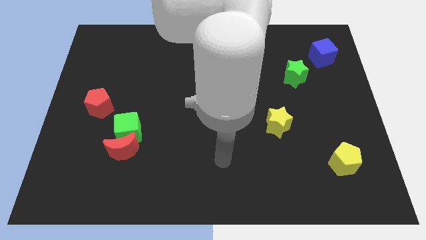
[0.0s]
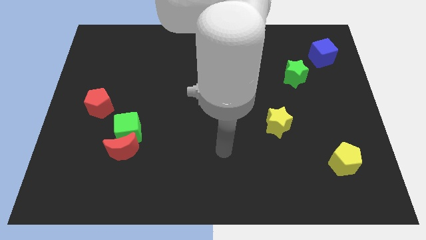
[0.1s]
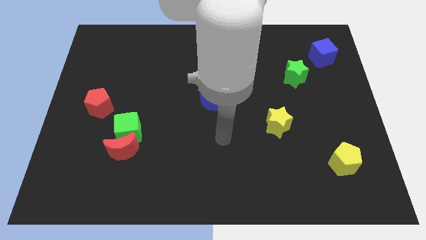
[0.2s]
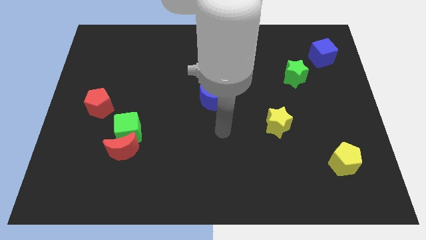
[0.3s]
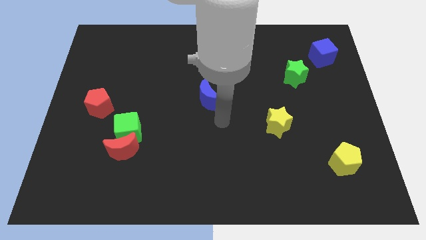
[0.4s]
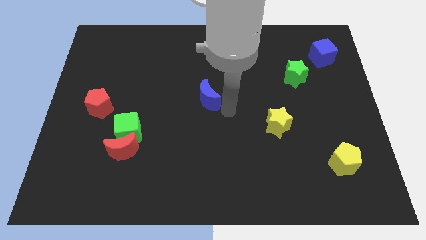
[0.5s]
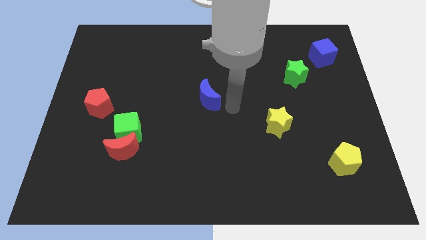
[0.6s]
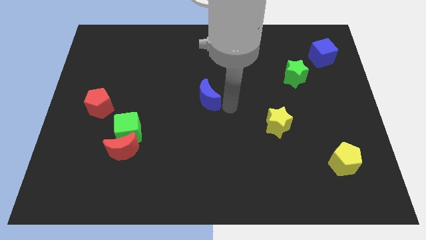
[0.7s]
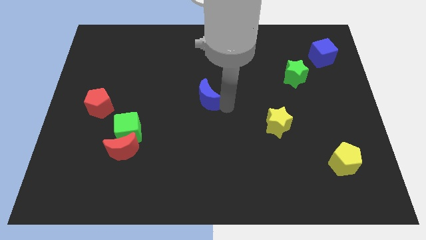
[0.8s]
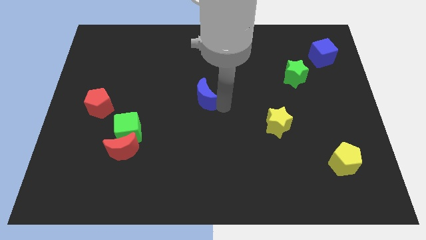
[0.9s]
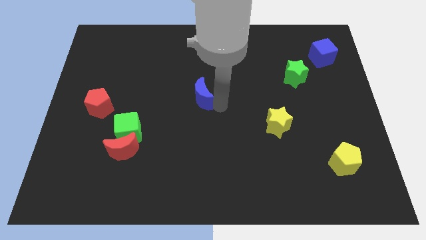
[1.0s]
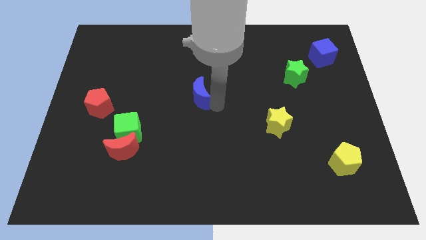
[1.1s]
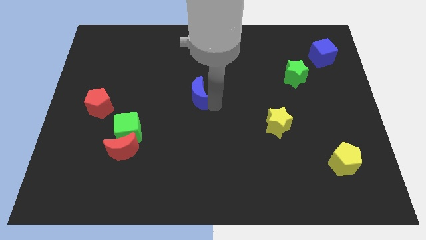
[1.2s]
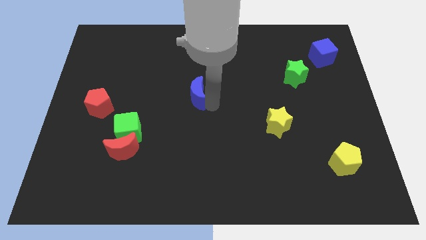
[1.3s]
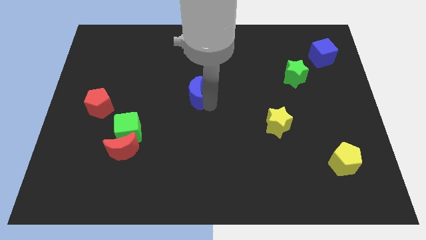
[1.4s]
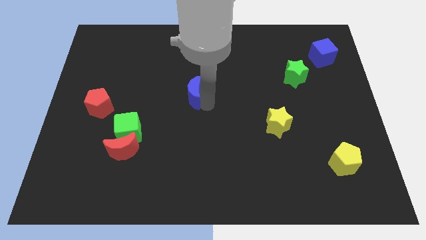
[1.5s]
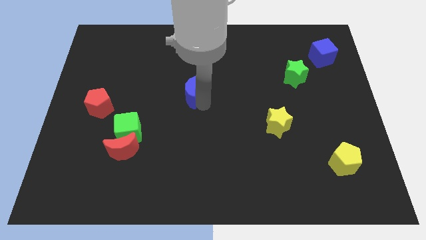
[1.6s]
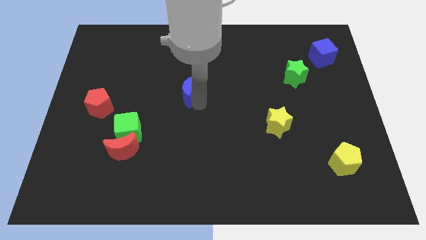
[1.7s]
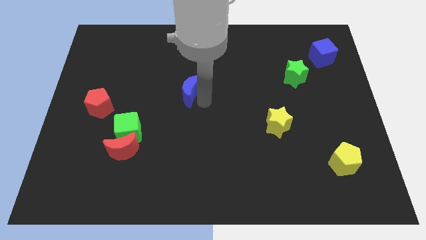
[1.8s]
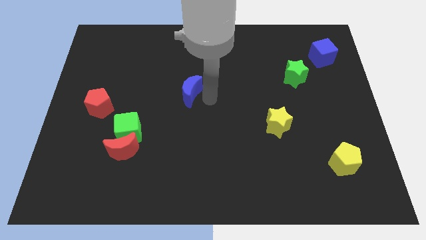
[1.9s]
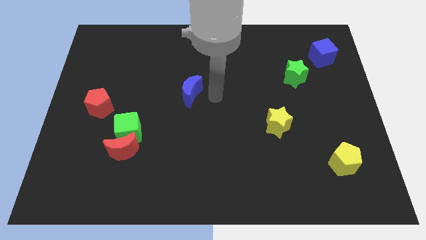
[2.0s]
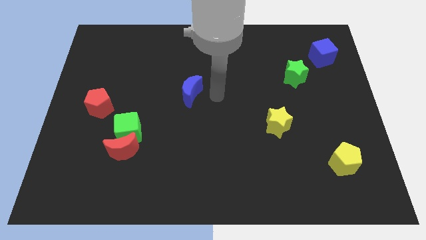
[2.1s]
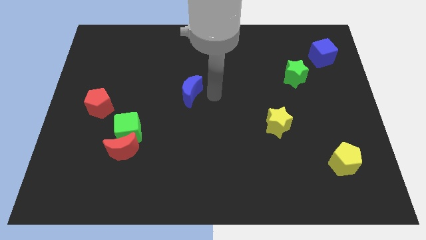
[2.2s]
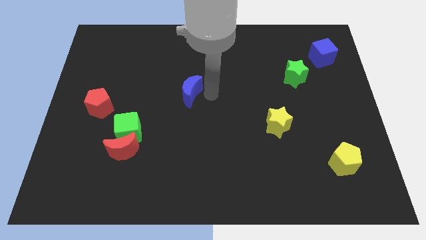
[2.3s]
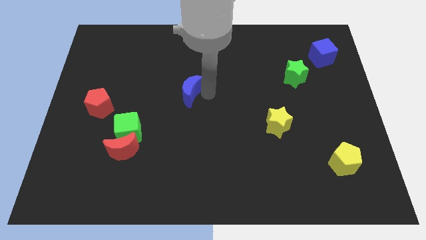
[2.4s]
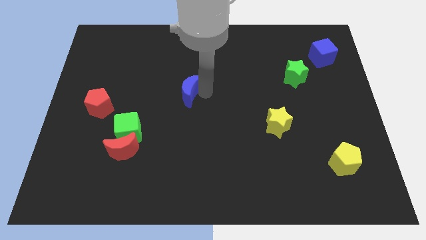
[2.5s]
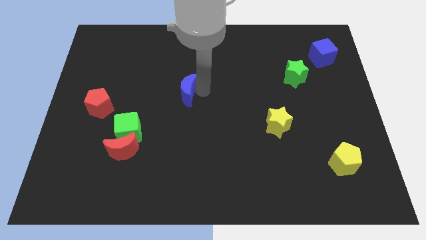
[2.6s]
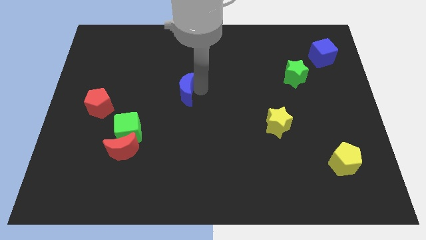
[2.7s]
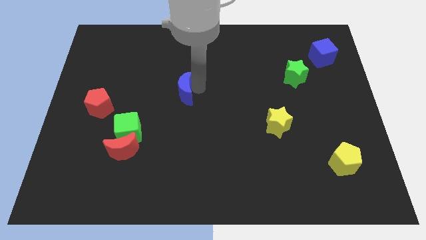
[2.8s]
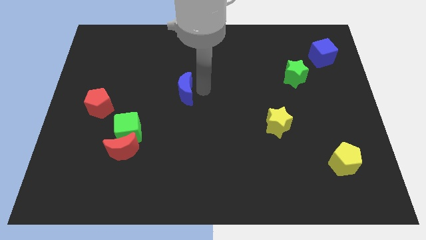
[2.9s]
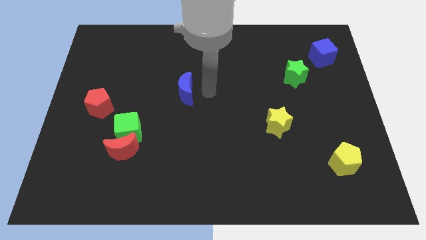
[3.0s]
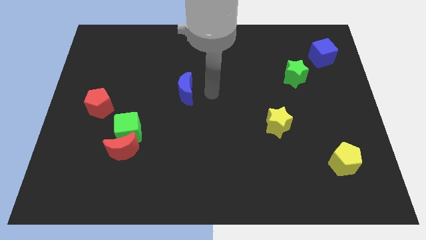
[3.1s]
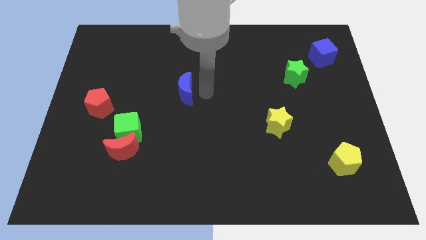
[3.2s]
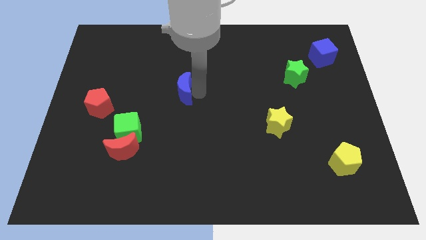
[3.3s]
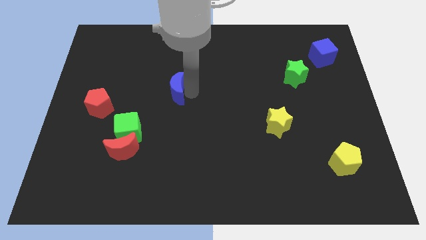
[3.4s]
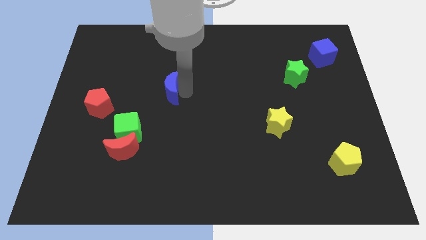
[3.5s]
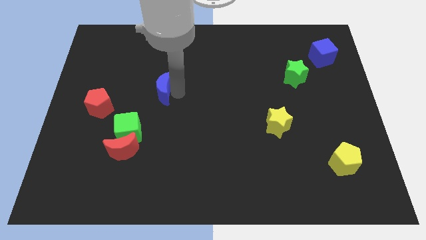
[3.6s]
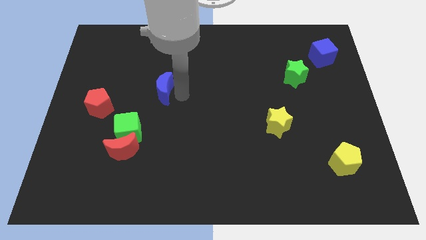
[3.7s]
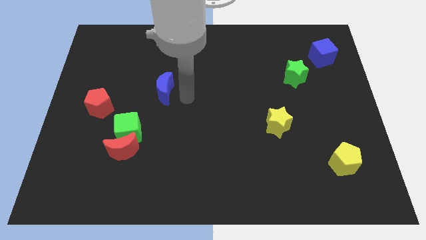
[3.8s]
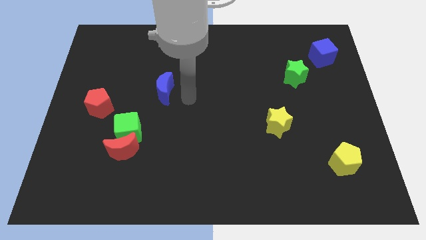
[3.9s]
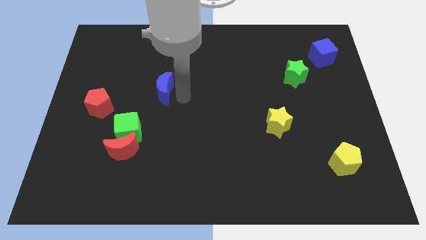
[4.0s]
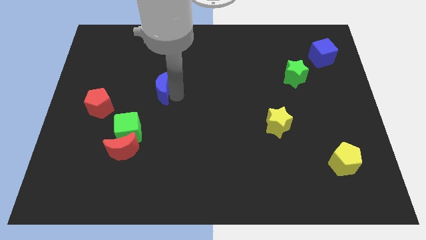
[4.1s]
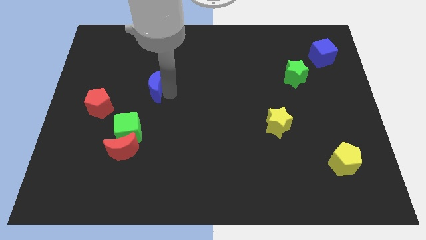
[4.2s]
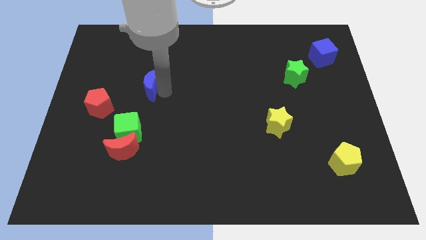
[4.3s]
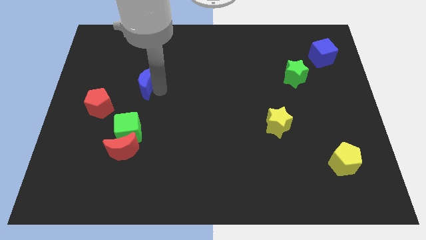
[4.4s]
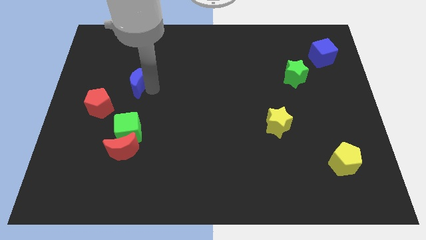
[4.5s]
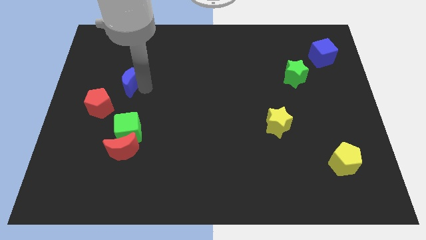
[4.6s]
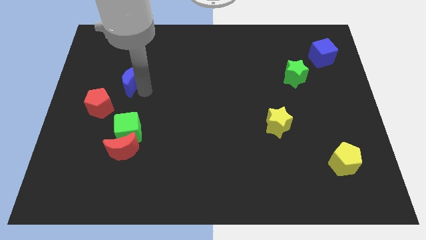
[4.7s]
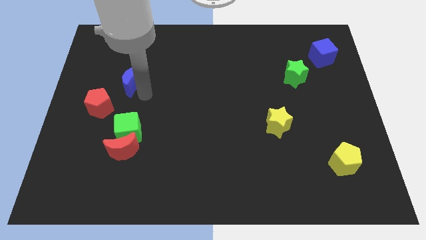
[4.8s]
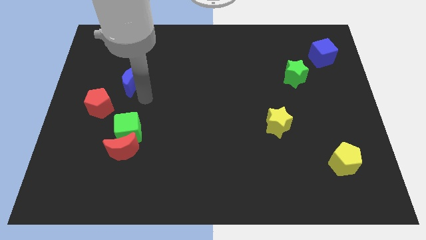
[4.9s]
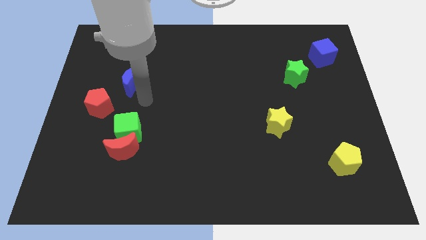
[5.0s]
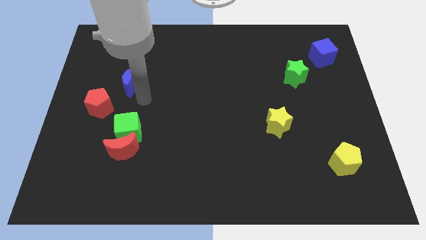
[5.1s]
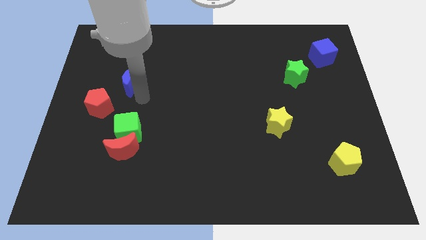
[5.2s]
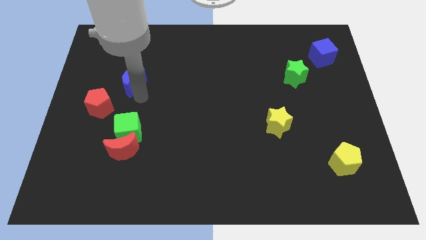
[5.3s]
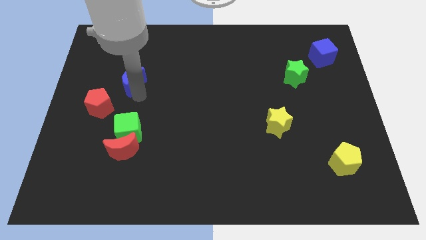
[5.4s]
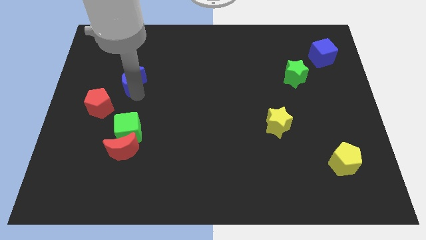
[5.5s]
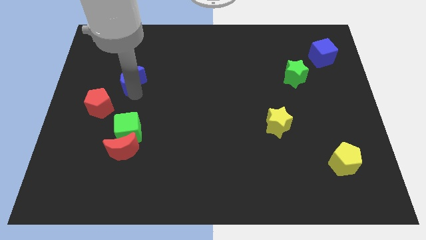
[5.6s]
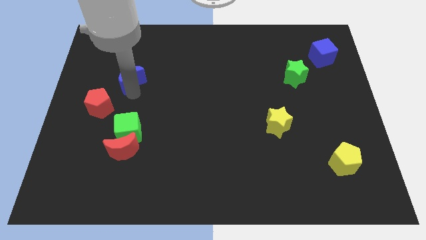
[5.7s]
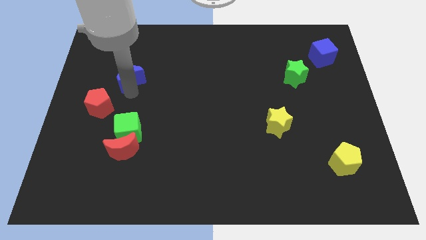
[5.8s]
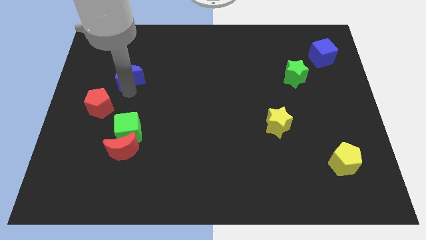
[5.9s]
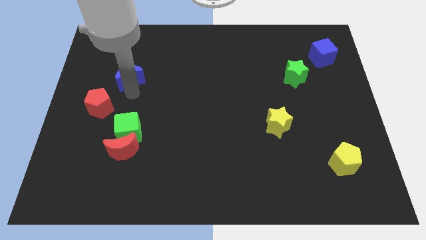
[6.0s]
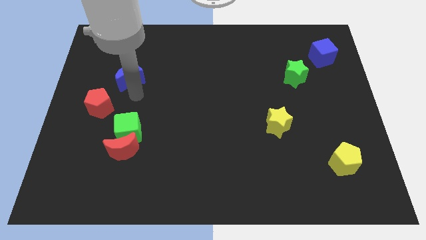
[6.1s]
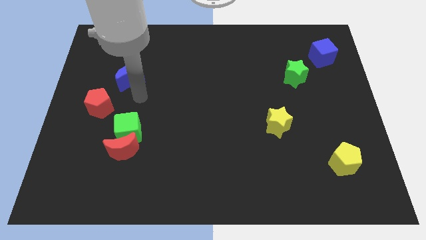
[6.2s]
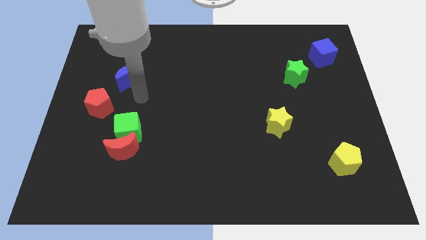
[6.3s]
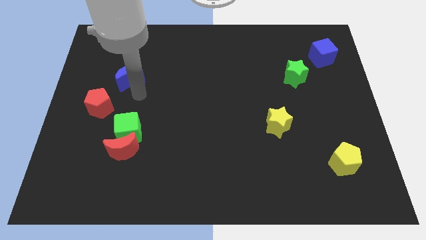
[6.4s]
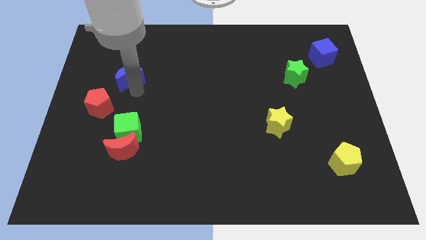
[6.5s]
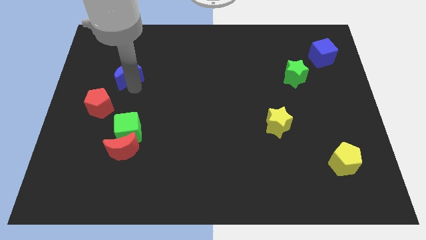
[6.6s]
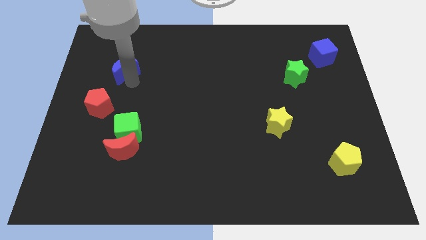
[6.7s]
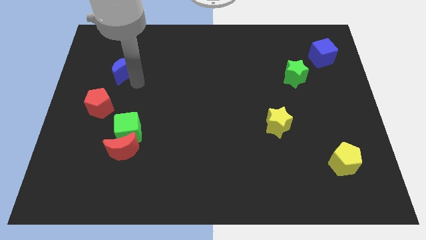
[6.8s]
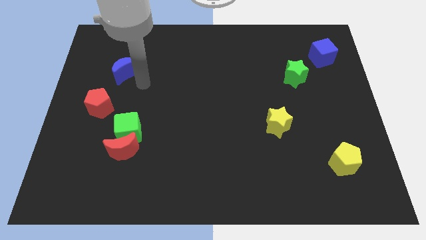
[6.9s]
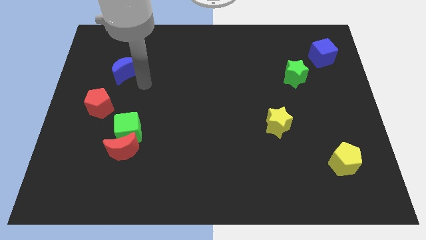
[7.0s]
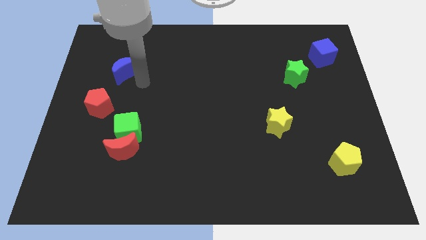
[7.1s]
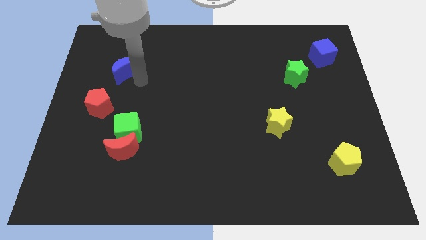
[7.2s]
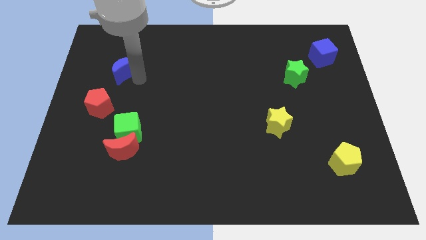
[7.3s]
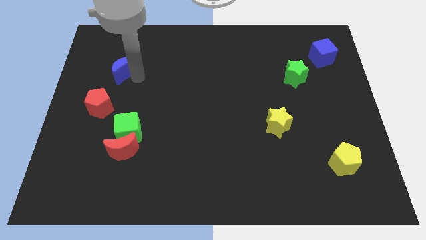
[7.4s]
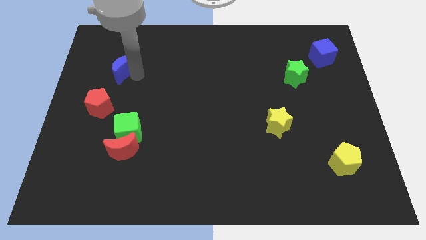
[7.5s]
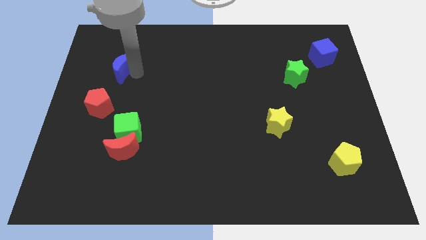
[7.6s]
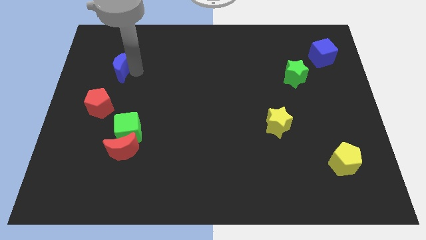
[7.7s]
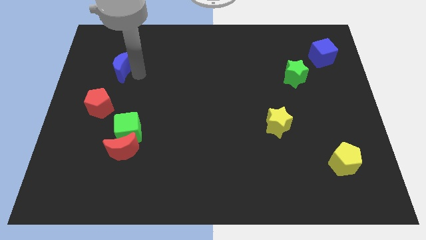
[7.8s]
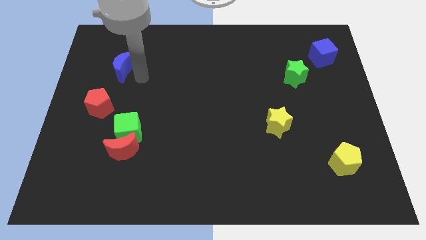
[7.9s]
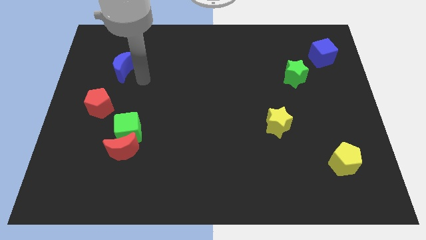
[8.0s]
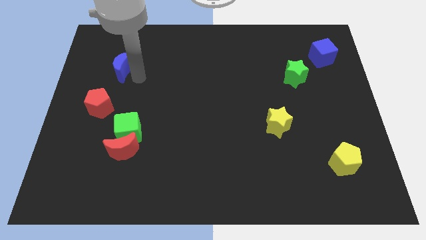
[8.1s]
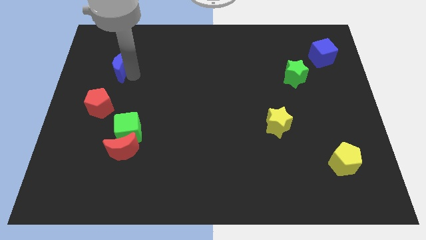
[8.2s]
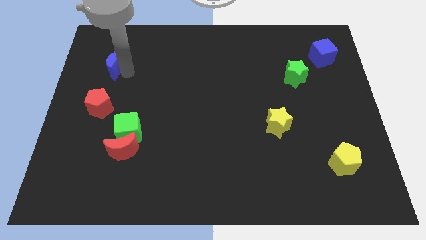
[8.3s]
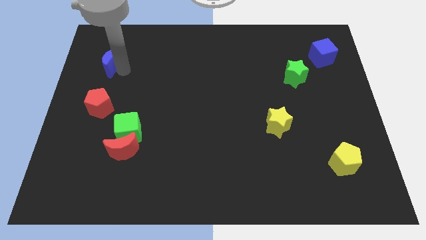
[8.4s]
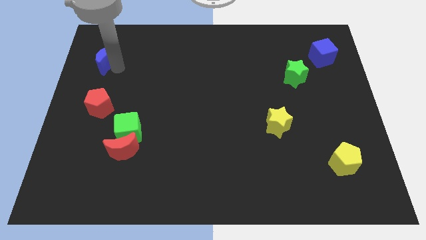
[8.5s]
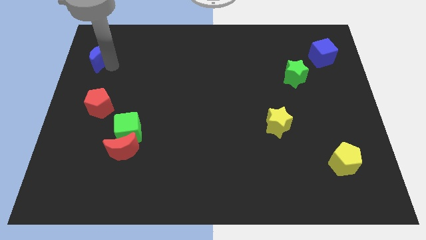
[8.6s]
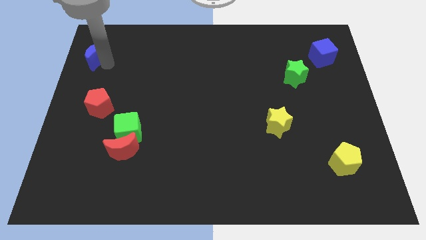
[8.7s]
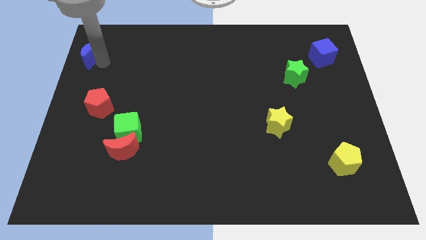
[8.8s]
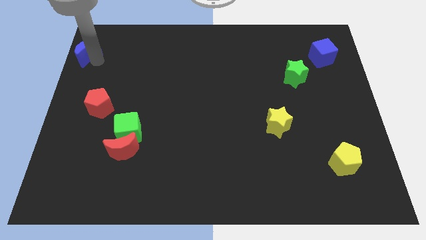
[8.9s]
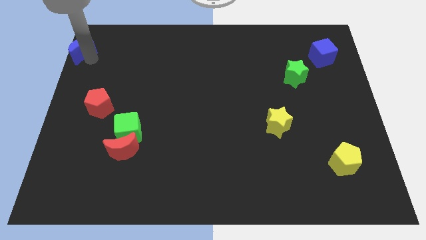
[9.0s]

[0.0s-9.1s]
put the blue moon to the top left of the board
